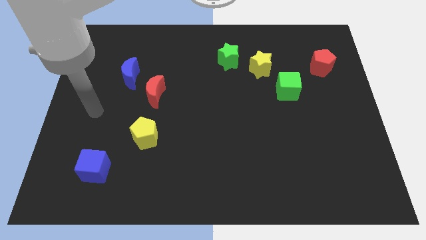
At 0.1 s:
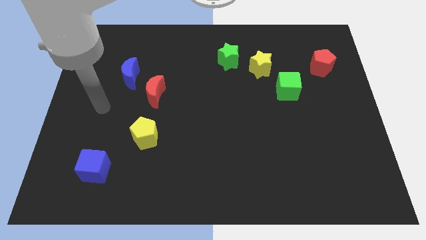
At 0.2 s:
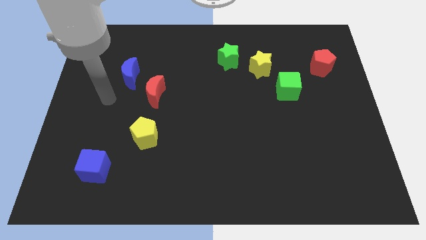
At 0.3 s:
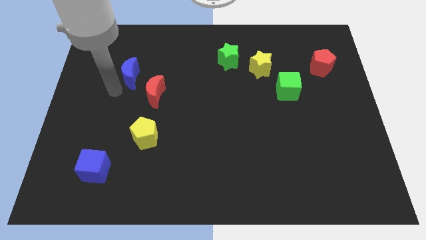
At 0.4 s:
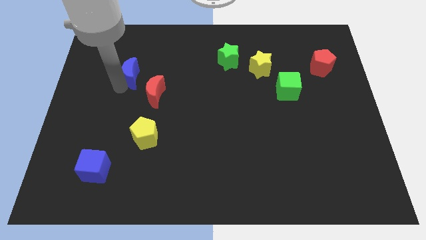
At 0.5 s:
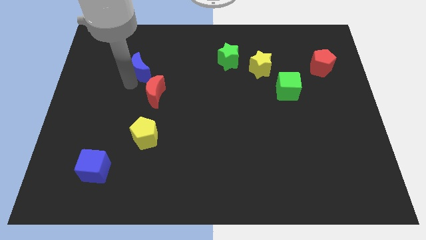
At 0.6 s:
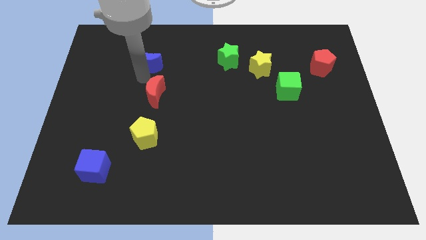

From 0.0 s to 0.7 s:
pull the red moon apart from the blue moon

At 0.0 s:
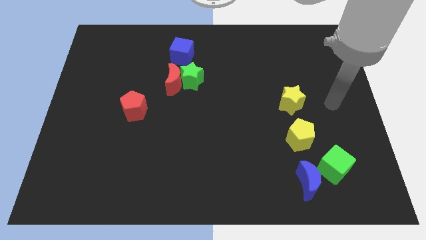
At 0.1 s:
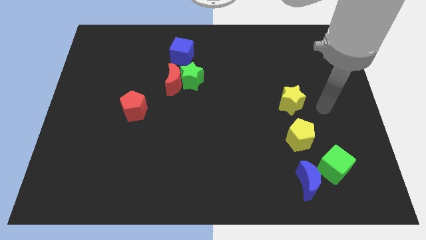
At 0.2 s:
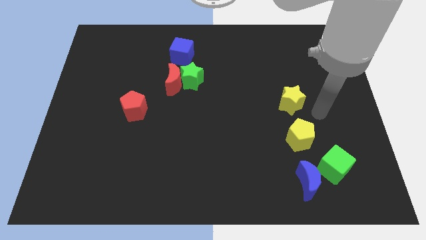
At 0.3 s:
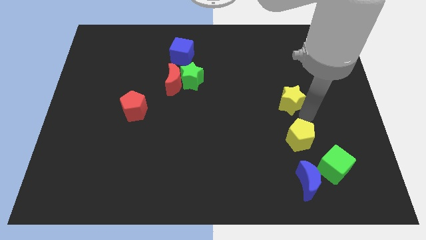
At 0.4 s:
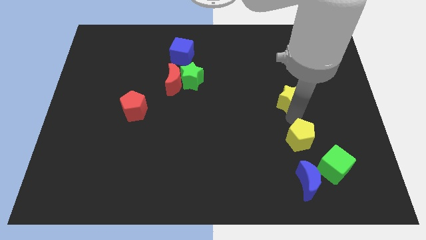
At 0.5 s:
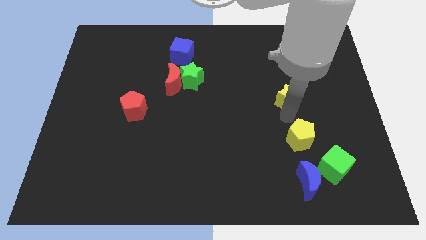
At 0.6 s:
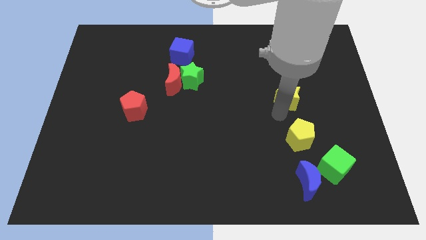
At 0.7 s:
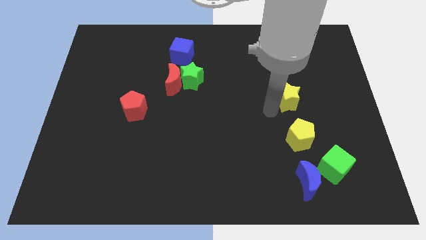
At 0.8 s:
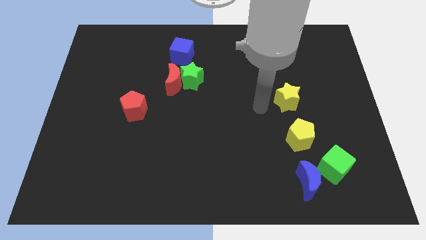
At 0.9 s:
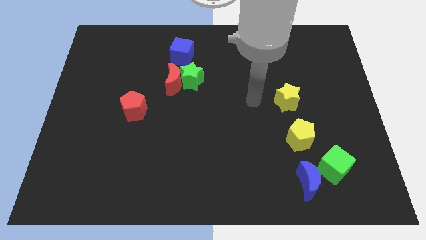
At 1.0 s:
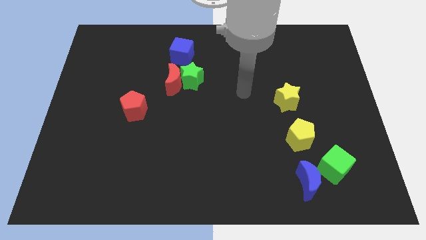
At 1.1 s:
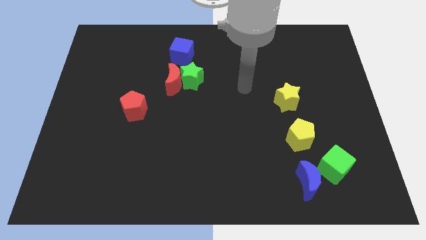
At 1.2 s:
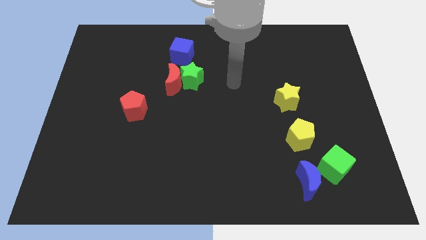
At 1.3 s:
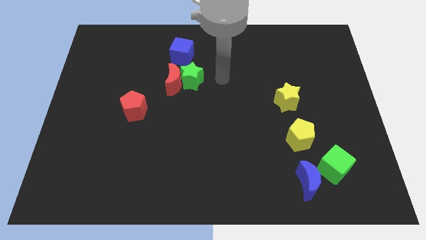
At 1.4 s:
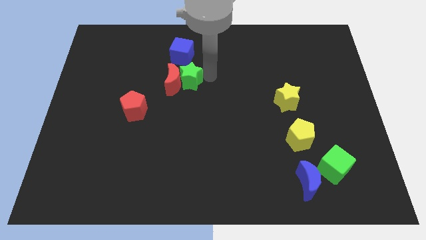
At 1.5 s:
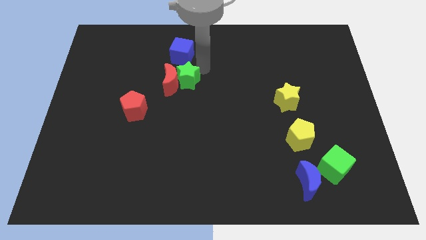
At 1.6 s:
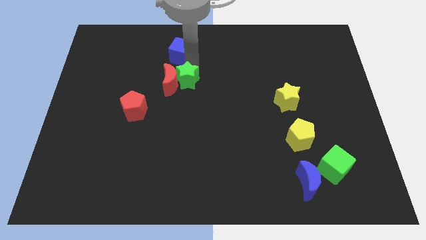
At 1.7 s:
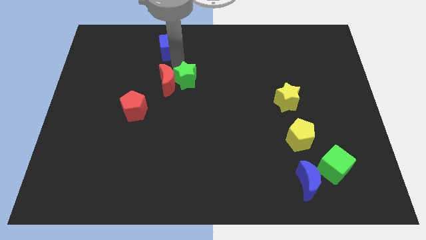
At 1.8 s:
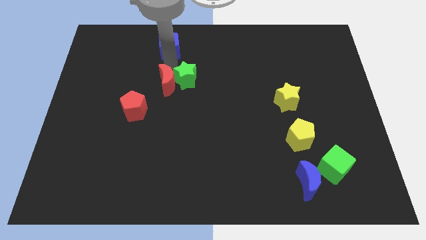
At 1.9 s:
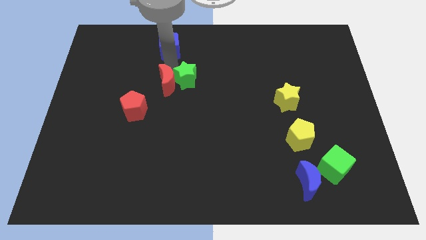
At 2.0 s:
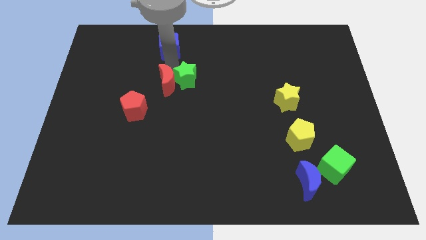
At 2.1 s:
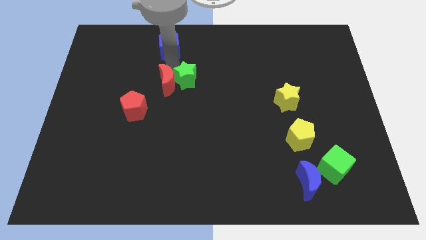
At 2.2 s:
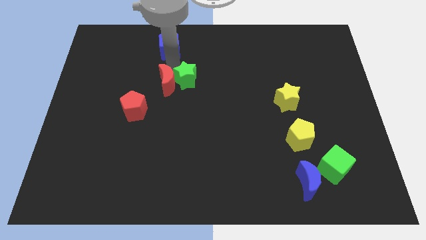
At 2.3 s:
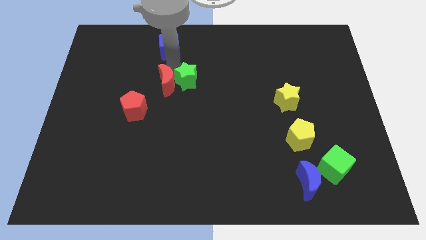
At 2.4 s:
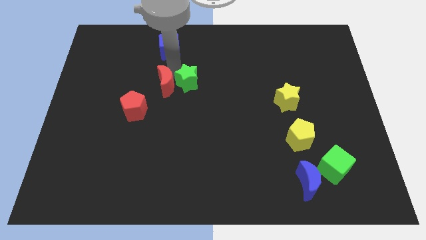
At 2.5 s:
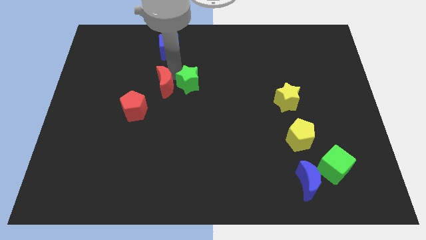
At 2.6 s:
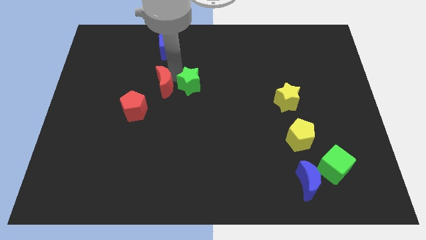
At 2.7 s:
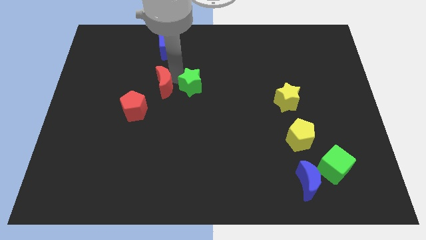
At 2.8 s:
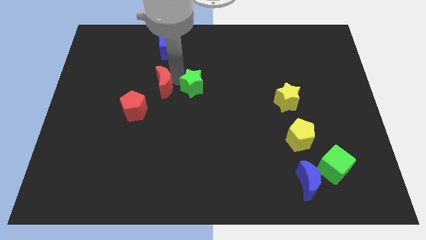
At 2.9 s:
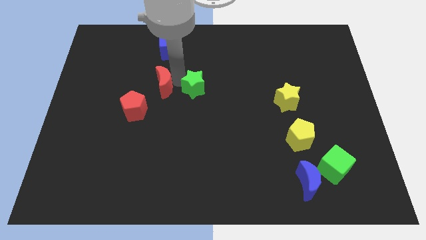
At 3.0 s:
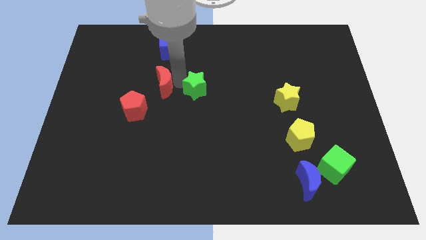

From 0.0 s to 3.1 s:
separate the green star from the red moon and blue cube

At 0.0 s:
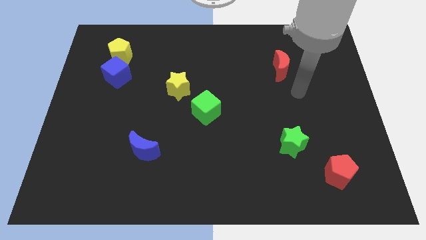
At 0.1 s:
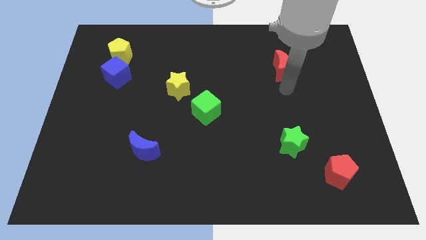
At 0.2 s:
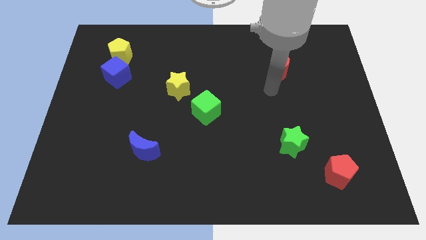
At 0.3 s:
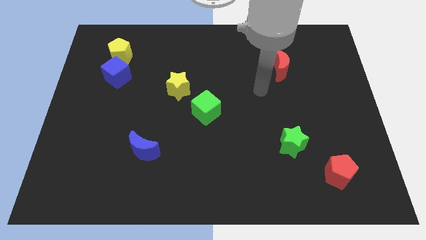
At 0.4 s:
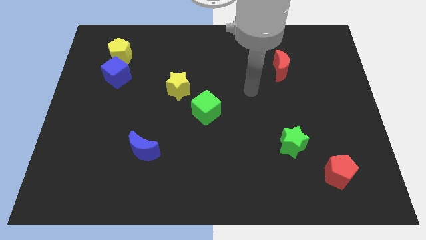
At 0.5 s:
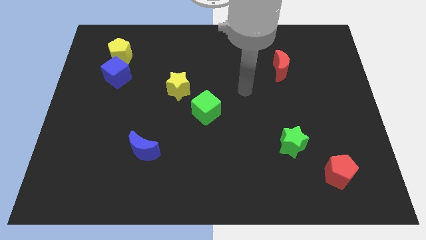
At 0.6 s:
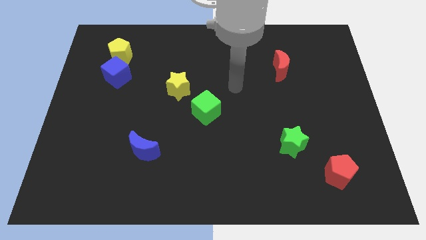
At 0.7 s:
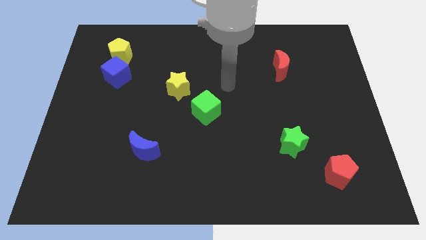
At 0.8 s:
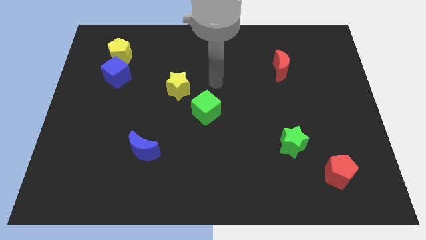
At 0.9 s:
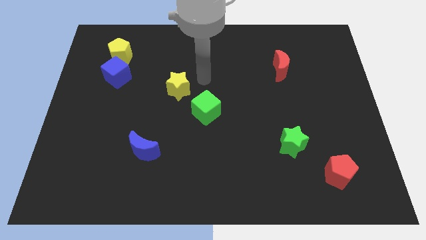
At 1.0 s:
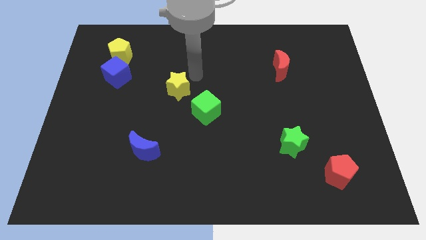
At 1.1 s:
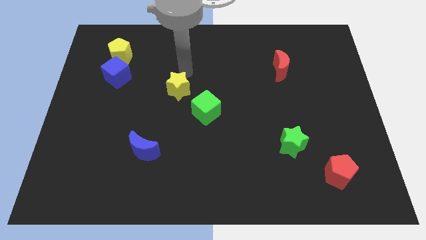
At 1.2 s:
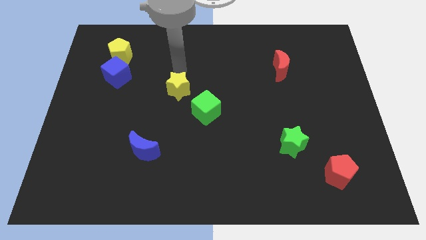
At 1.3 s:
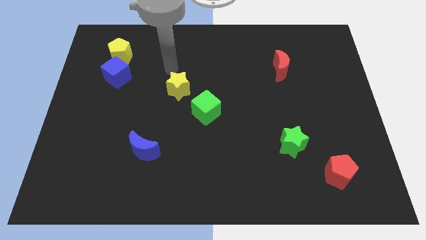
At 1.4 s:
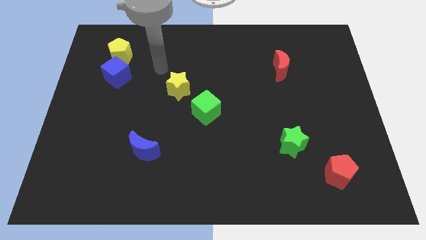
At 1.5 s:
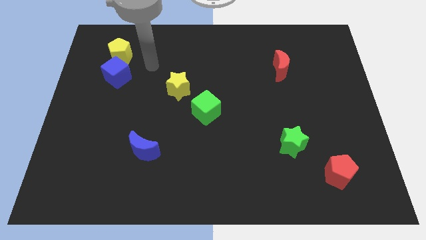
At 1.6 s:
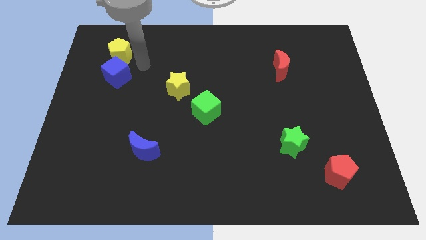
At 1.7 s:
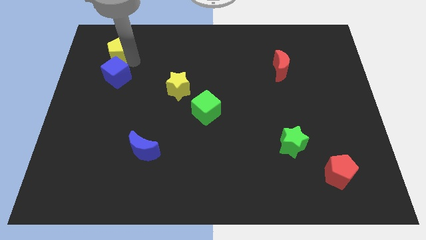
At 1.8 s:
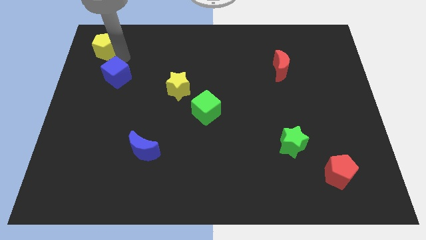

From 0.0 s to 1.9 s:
pull the blue cube apart from the yellow pentagon

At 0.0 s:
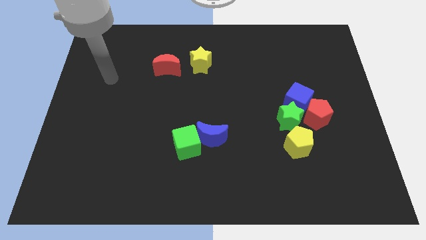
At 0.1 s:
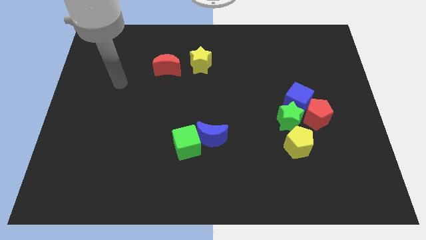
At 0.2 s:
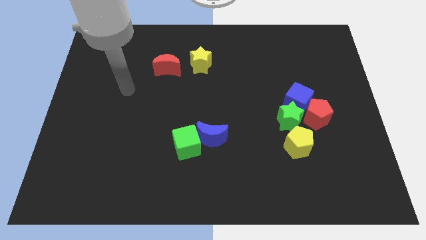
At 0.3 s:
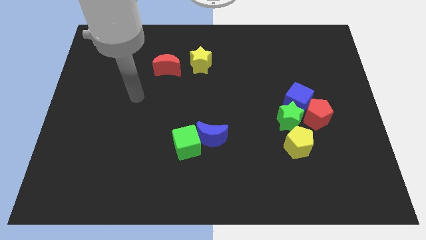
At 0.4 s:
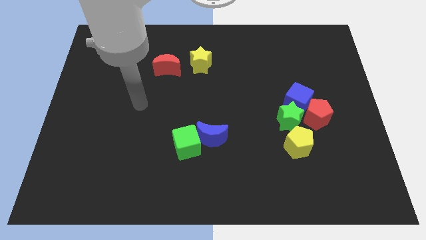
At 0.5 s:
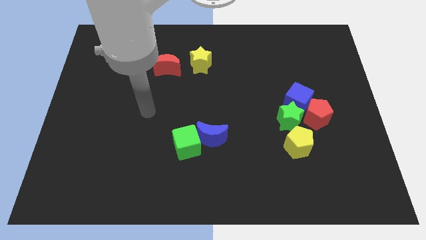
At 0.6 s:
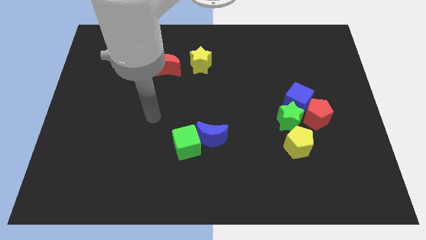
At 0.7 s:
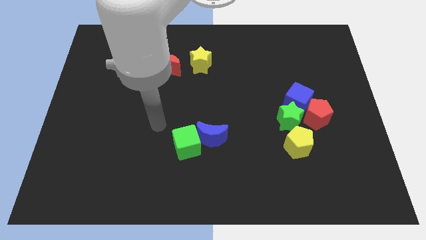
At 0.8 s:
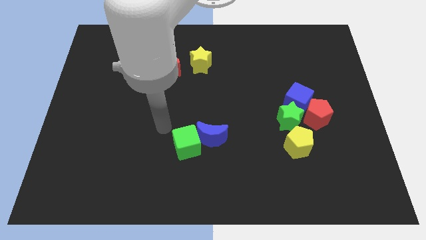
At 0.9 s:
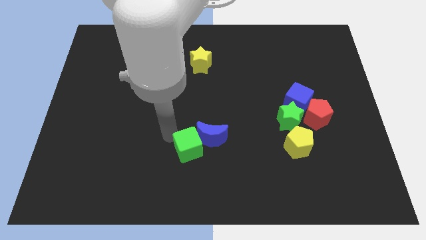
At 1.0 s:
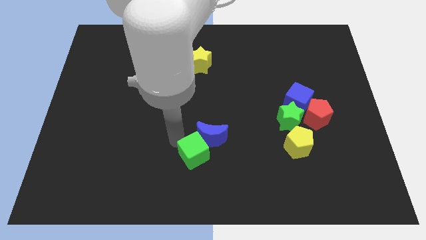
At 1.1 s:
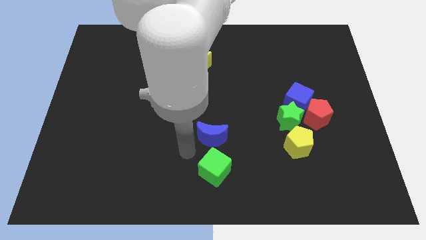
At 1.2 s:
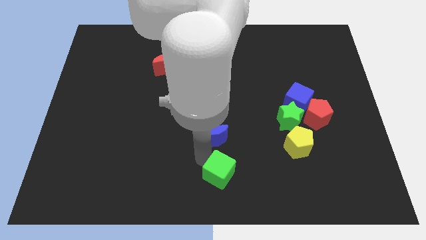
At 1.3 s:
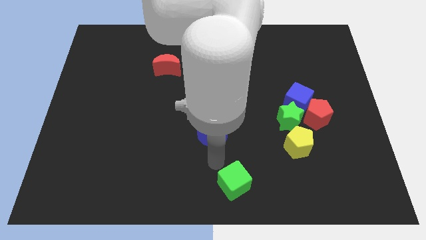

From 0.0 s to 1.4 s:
separate the blue moon from the green cube

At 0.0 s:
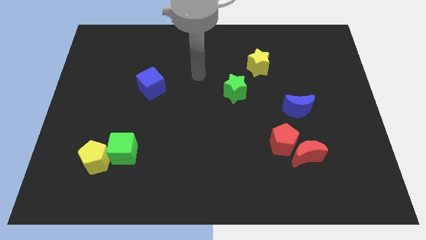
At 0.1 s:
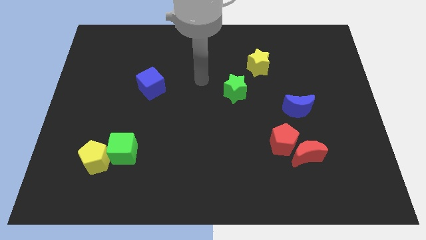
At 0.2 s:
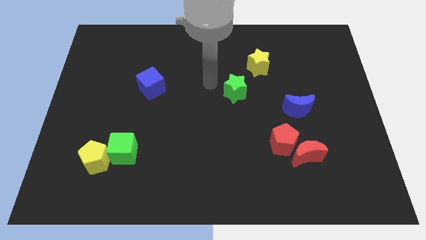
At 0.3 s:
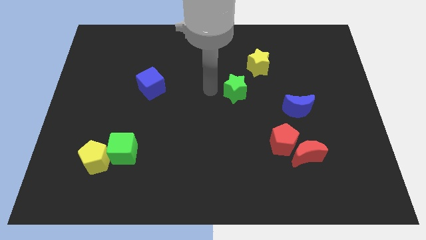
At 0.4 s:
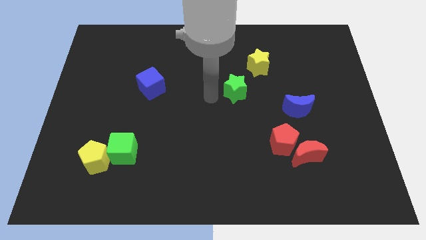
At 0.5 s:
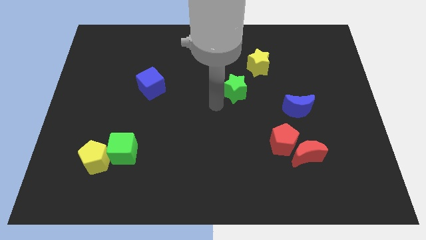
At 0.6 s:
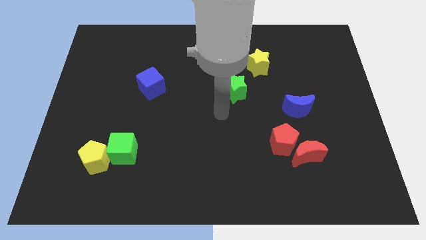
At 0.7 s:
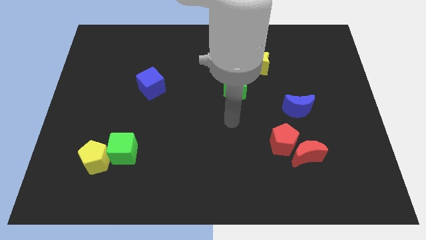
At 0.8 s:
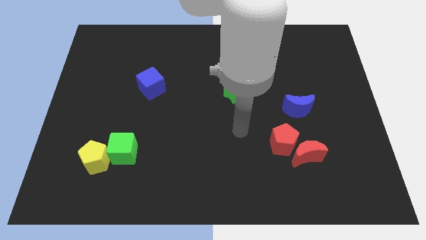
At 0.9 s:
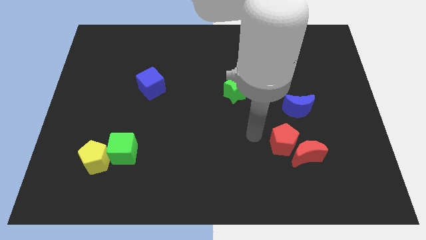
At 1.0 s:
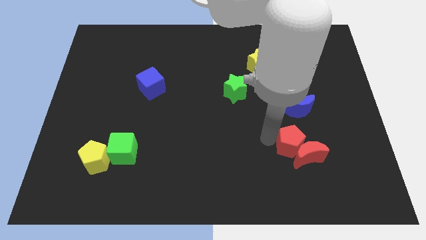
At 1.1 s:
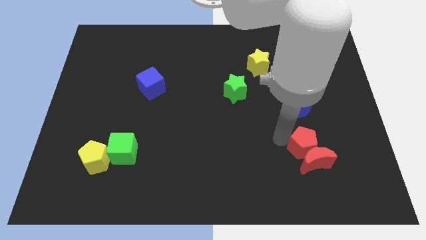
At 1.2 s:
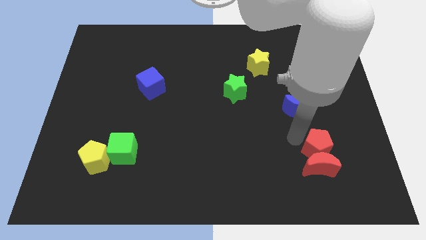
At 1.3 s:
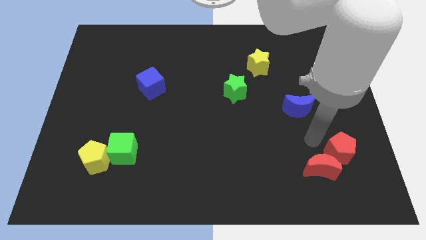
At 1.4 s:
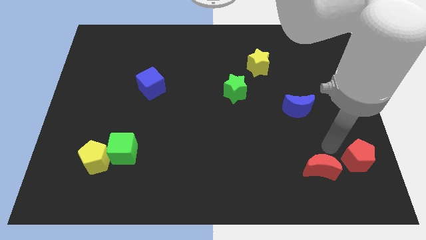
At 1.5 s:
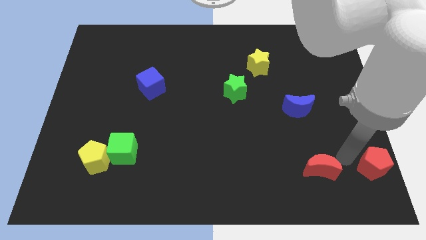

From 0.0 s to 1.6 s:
move the red moon away from the red pentagon

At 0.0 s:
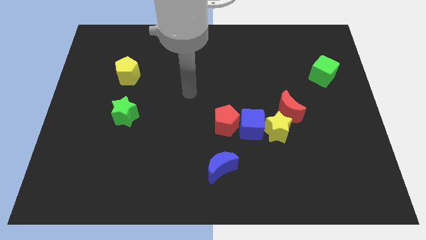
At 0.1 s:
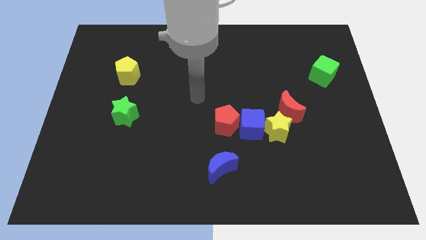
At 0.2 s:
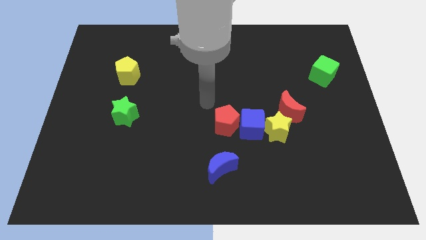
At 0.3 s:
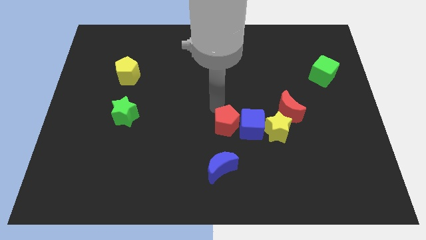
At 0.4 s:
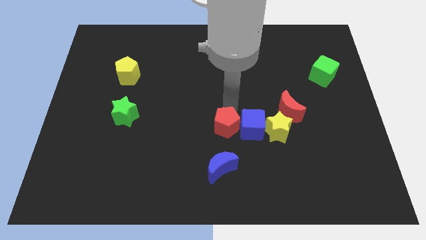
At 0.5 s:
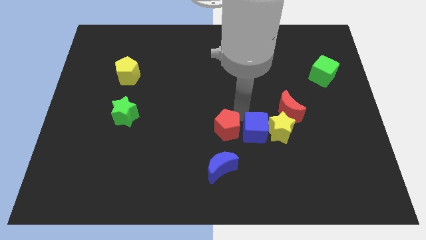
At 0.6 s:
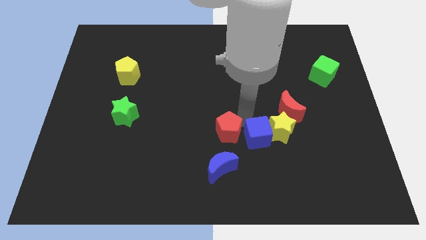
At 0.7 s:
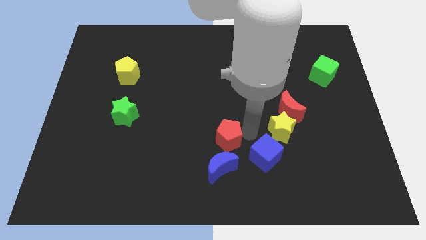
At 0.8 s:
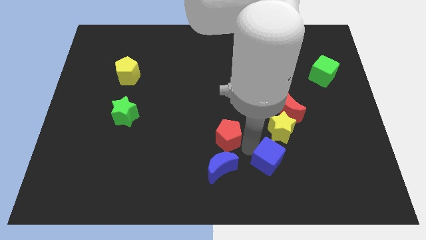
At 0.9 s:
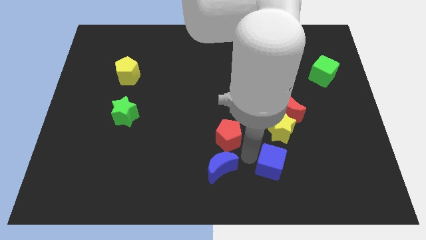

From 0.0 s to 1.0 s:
separate the red pentagon from the blue cube
